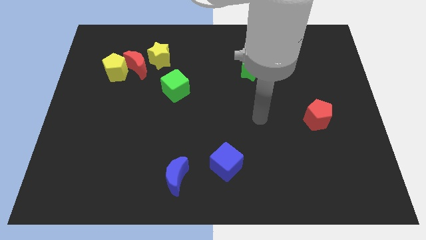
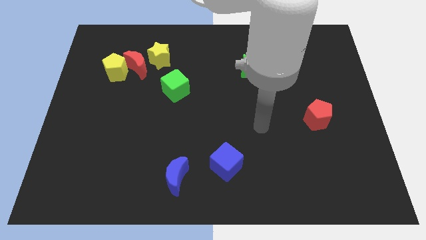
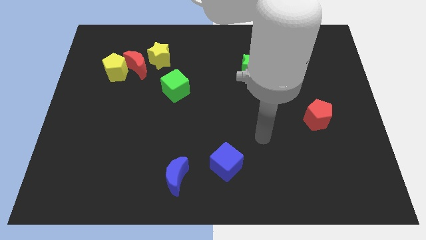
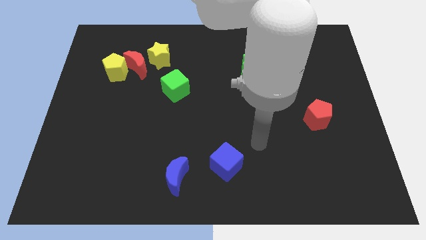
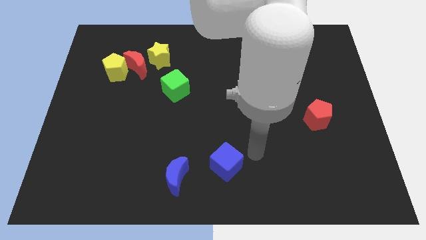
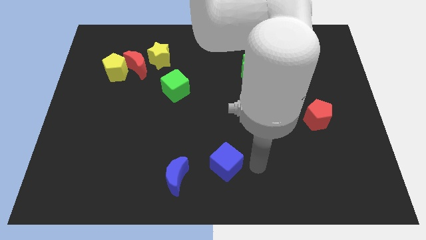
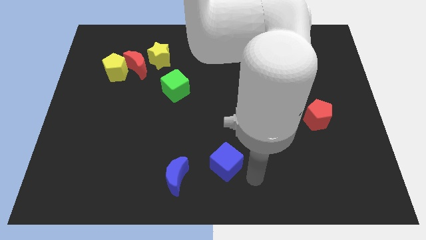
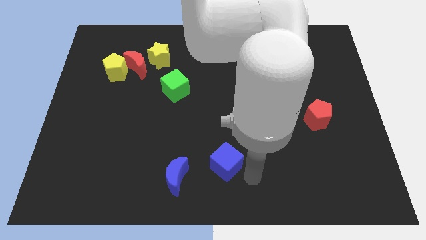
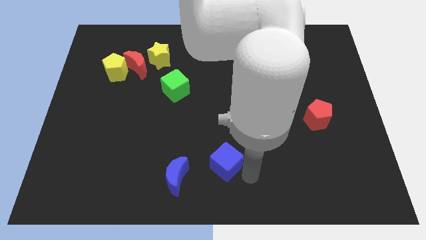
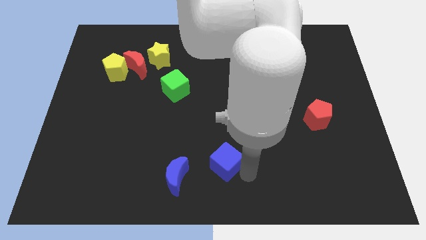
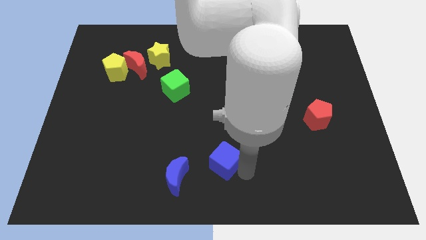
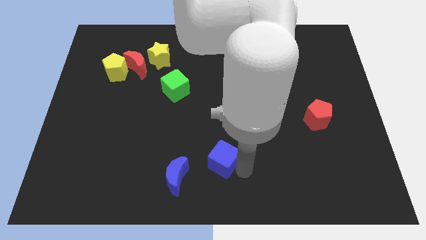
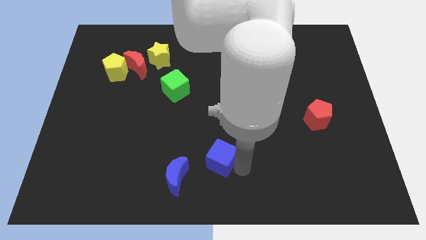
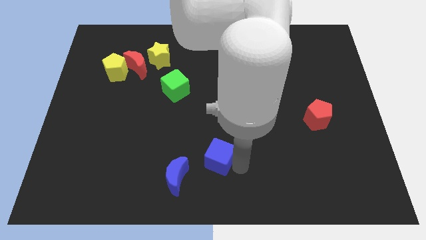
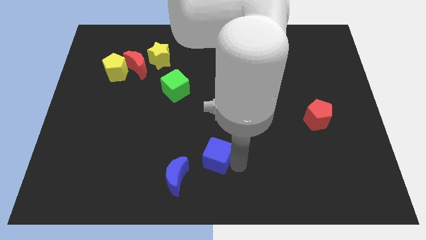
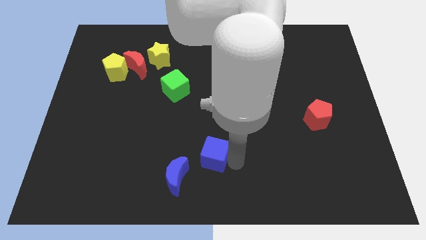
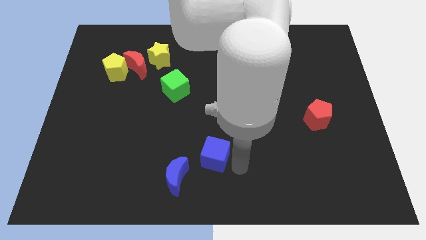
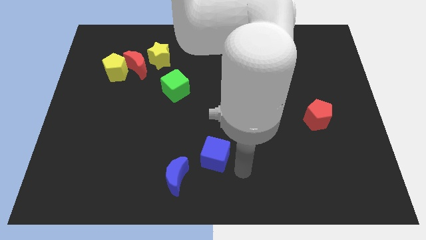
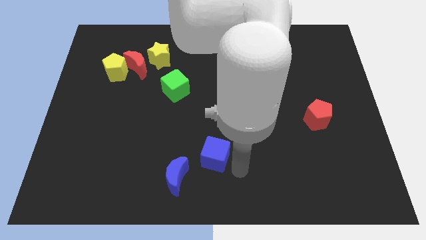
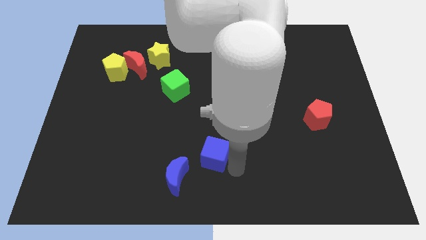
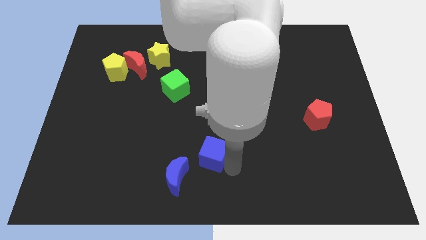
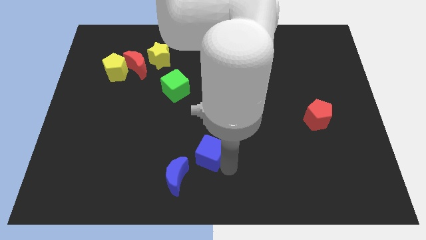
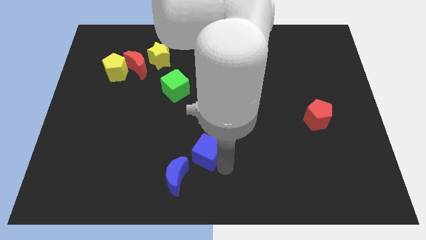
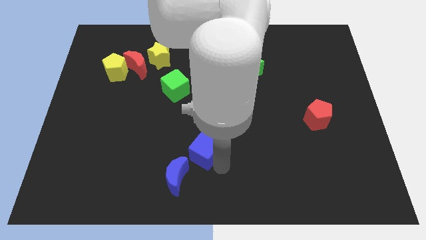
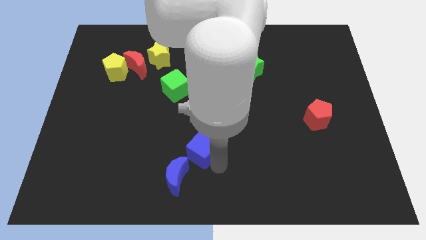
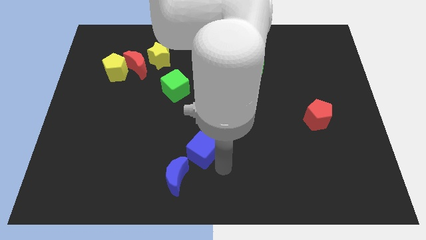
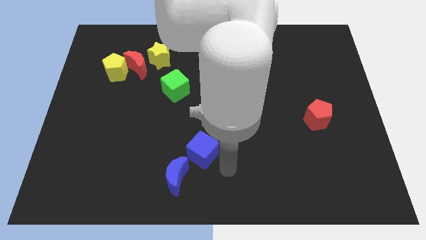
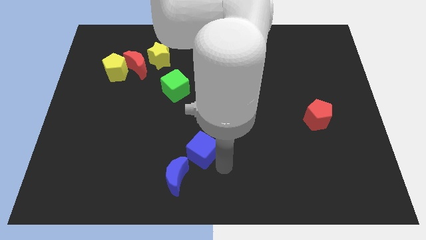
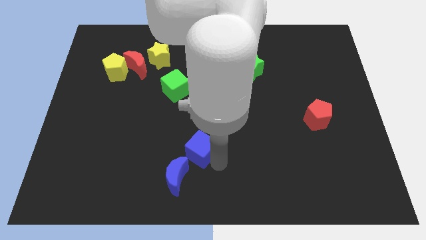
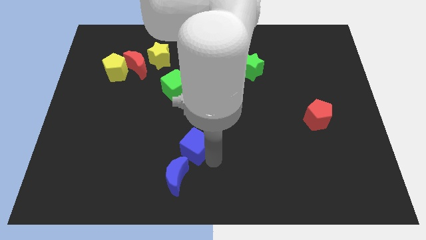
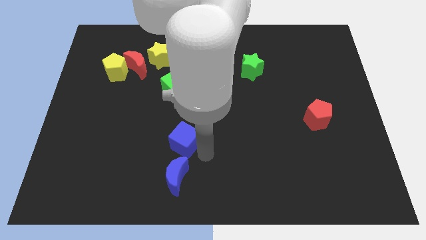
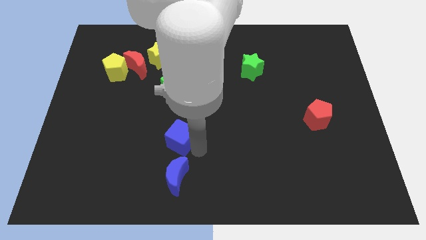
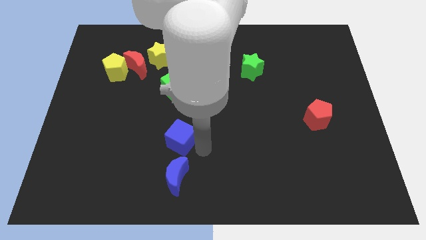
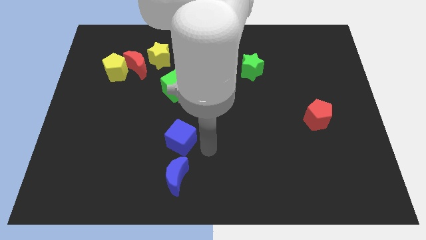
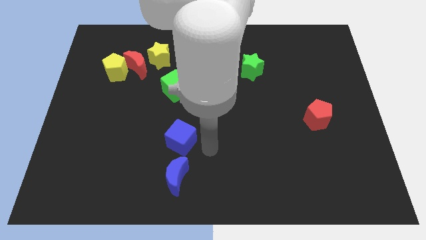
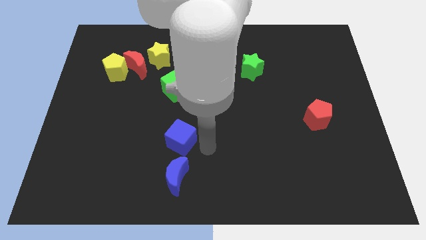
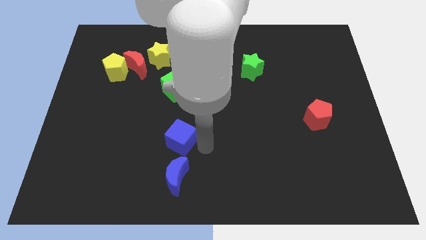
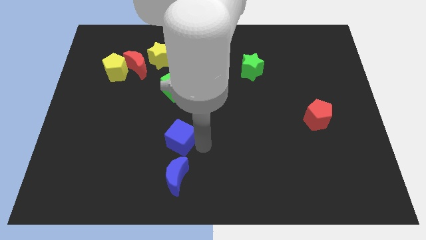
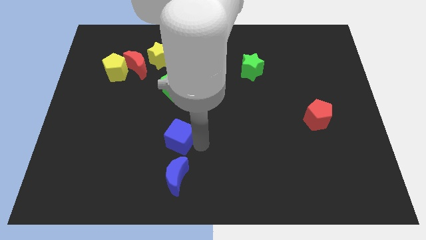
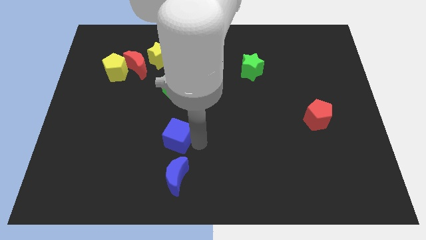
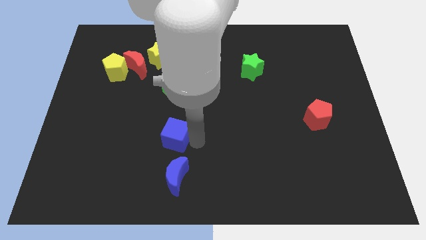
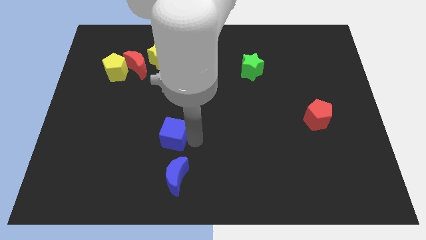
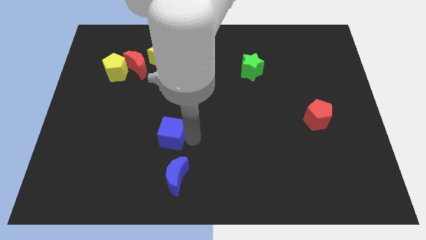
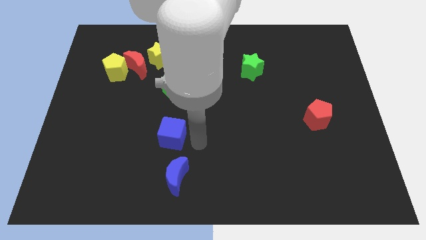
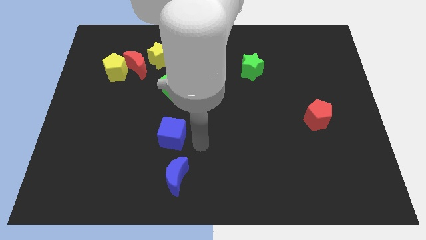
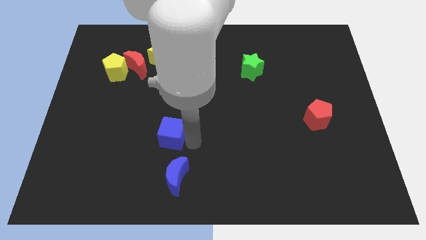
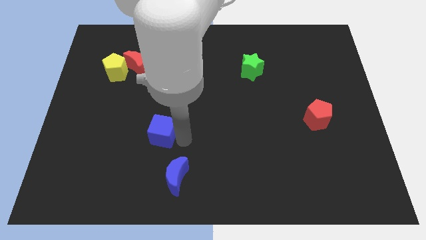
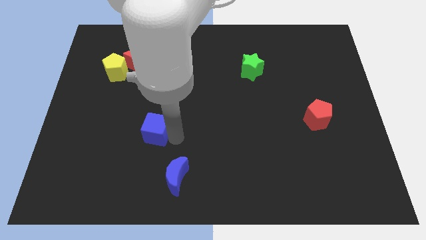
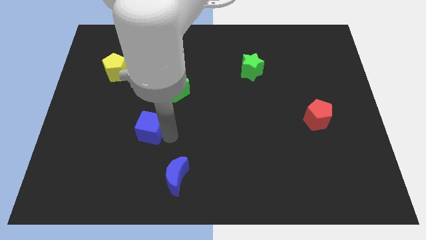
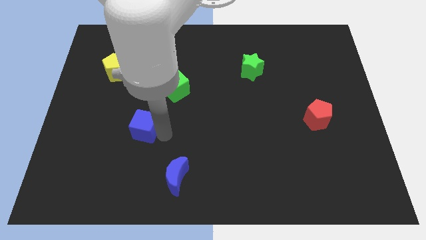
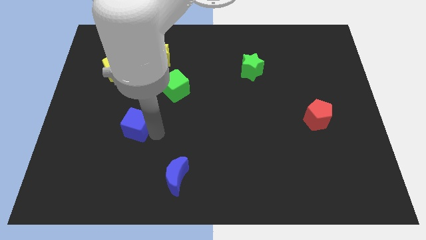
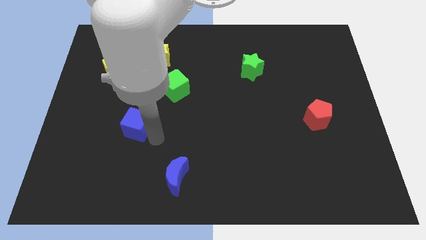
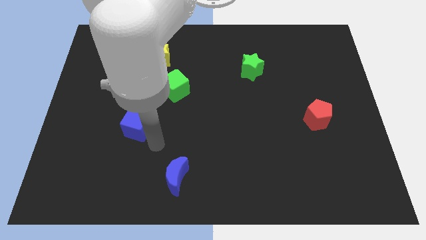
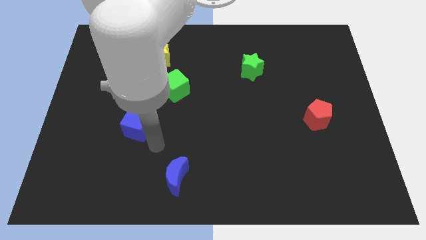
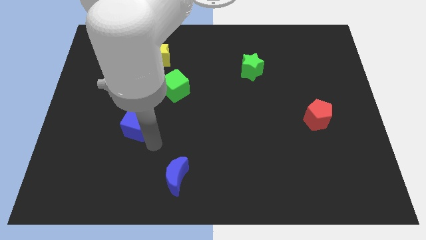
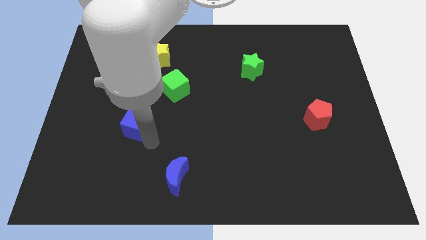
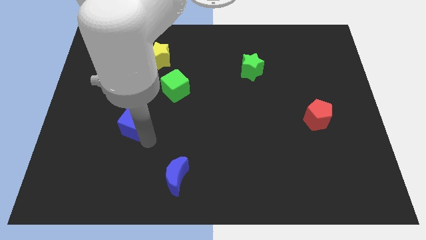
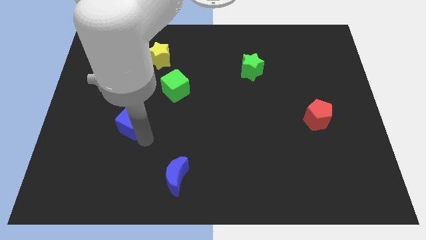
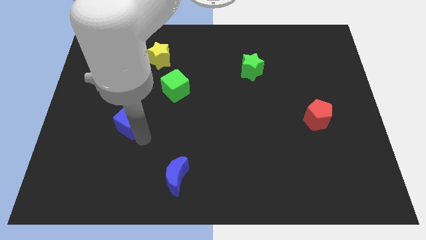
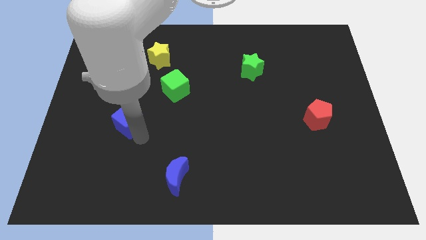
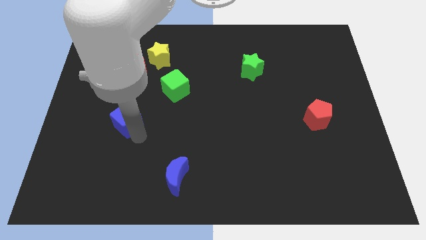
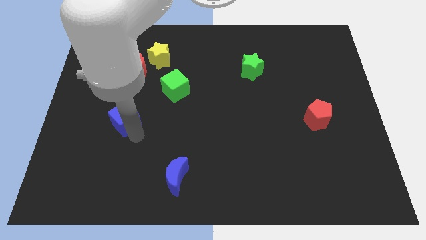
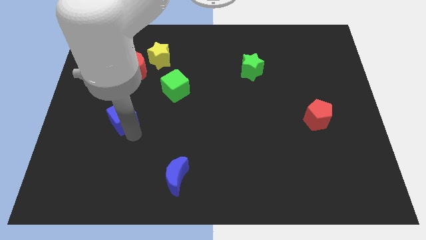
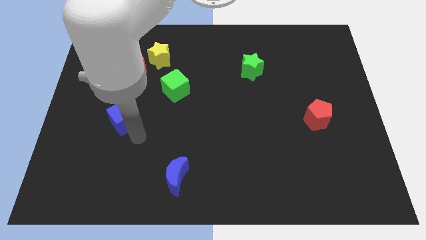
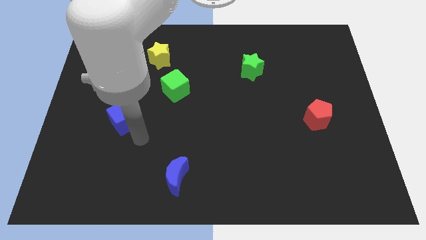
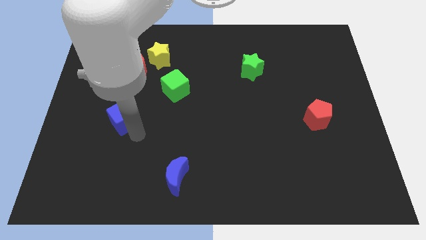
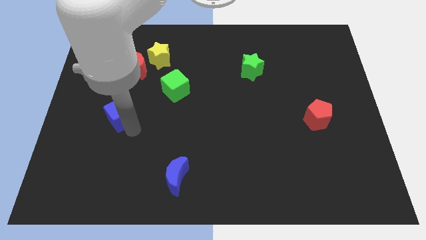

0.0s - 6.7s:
put the blue cube to the bottom of the yellow pentagon

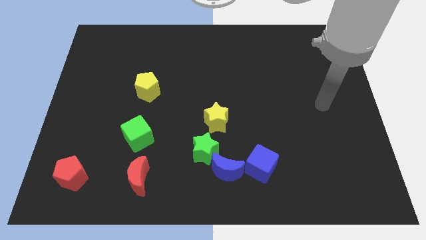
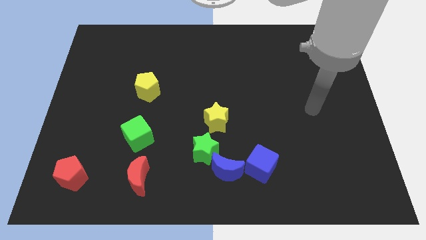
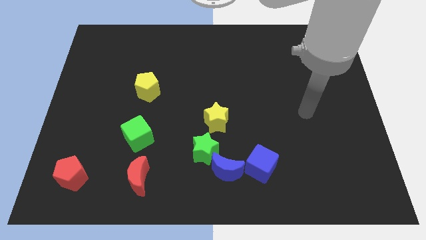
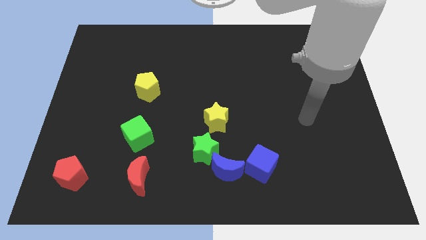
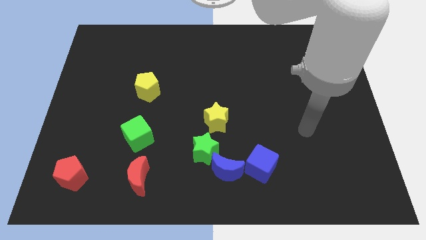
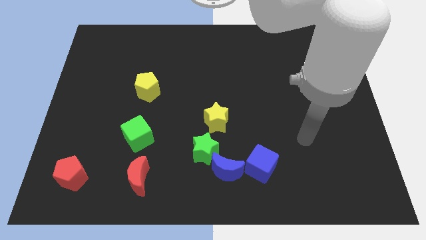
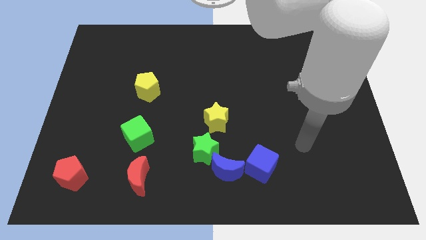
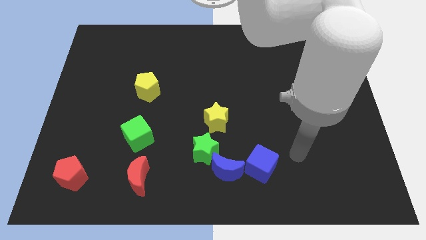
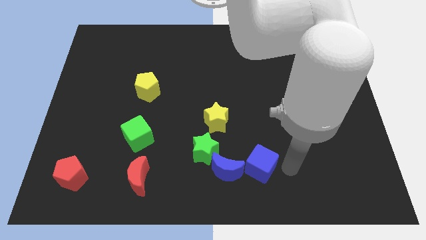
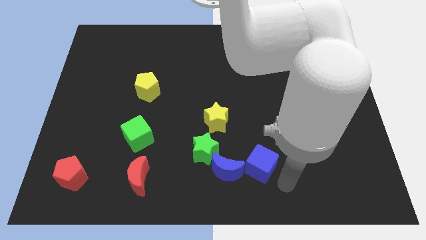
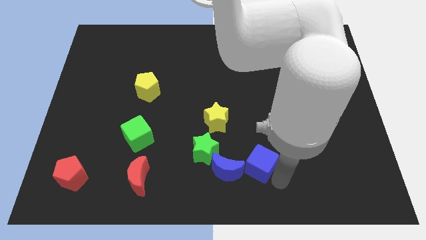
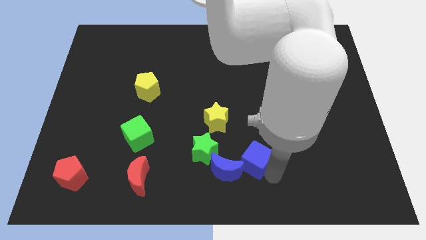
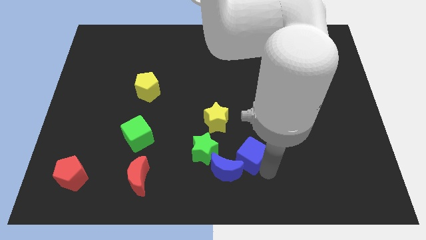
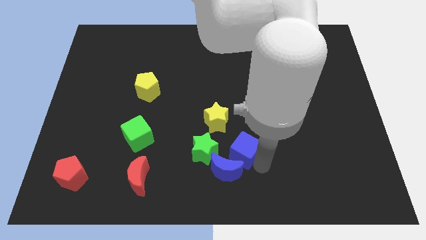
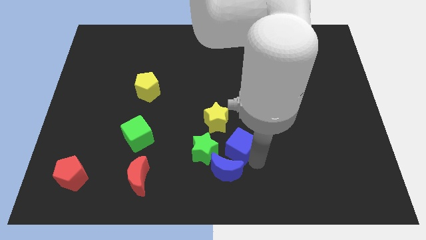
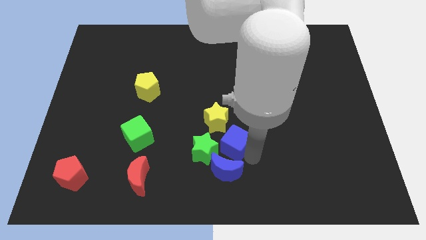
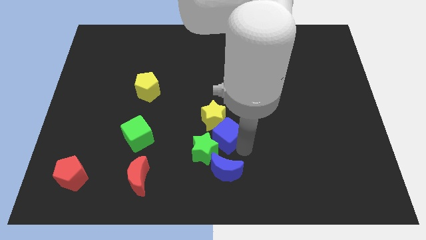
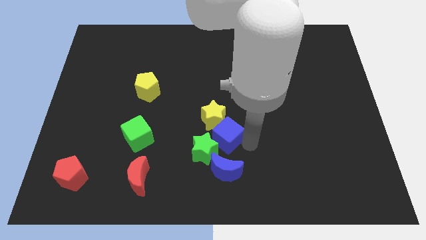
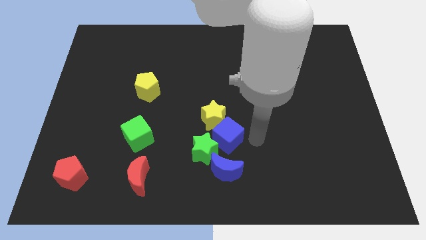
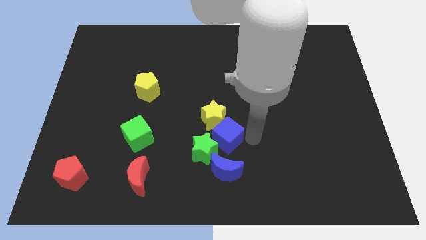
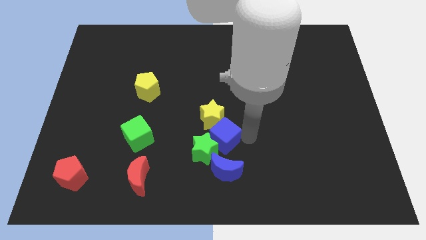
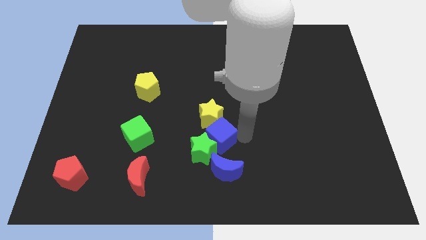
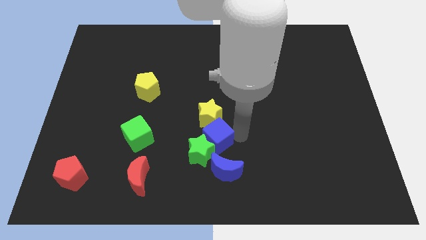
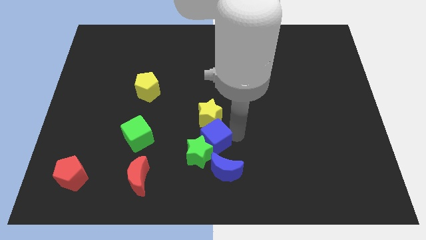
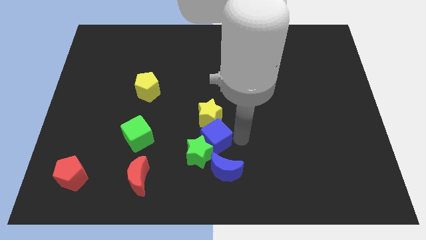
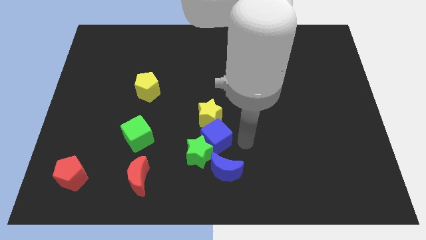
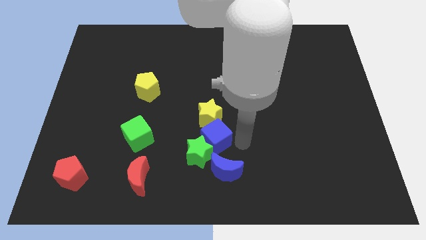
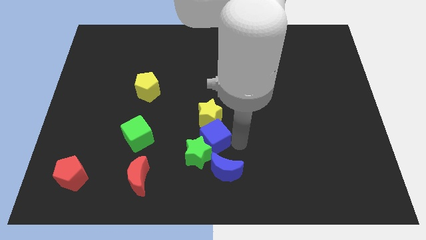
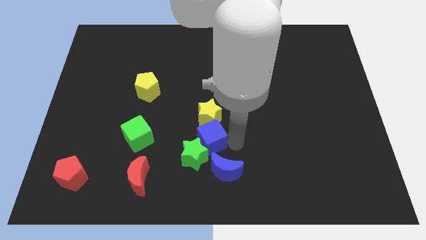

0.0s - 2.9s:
move the blue cube to the right of the green cube
